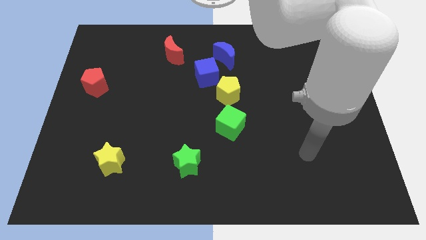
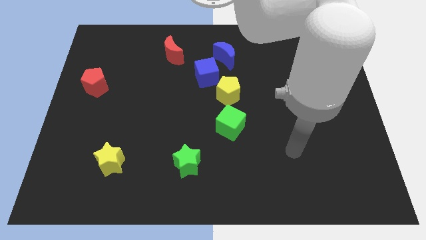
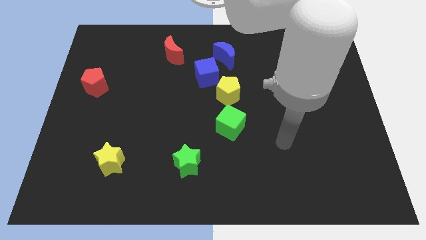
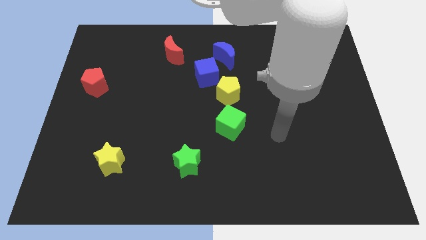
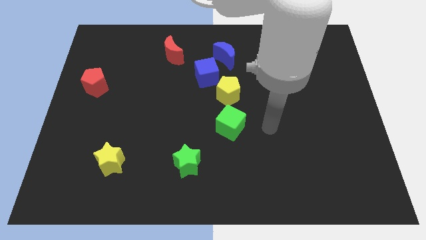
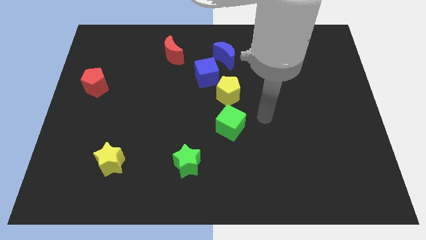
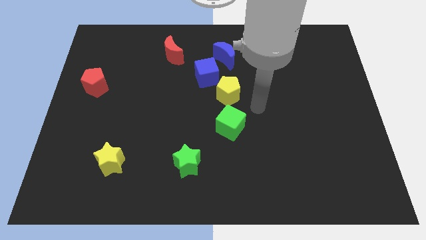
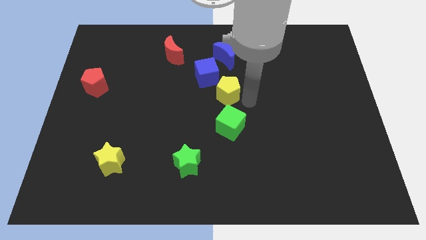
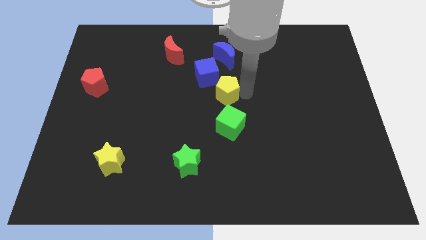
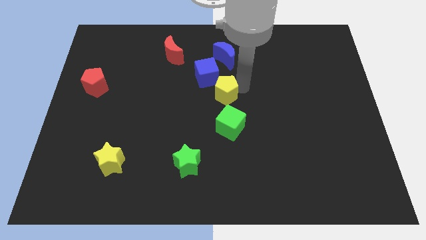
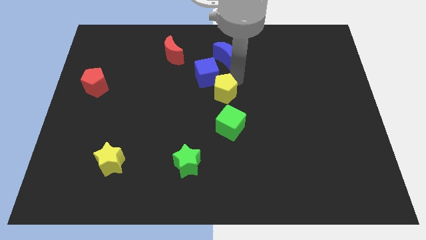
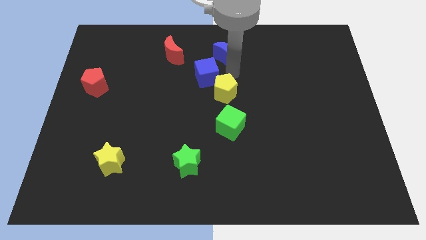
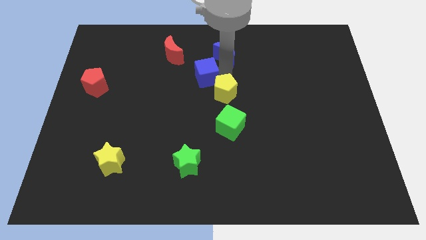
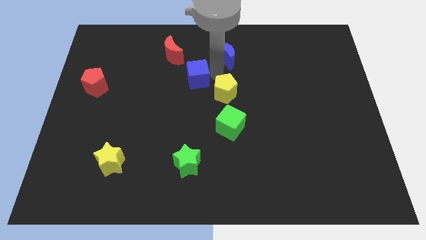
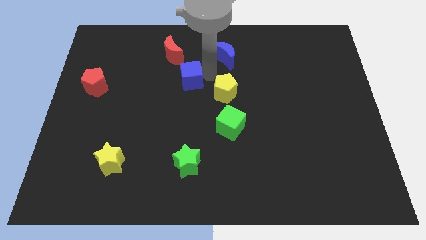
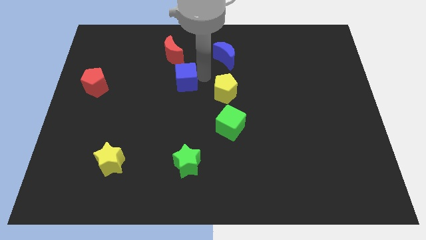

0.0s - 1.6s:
move the blue cube away from the yellow pentagon and blue moon

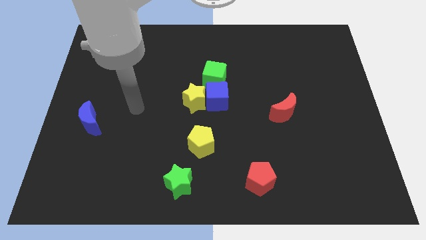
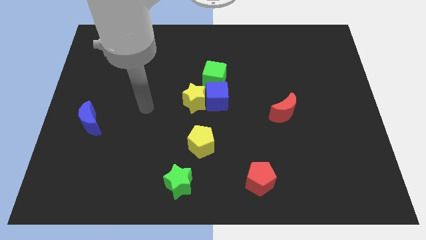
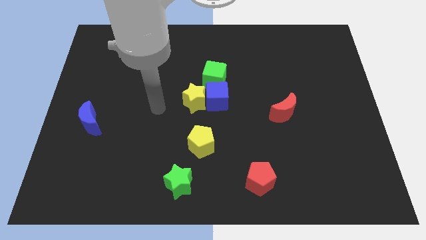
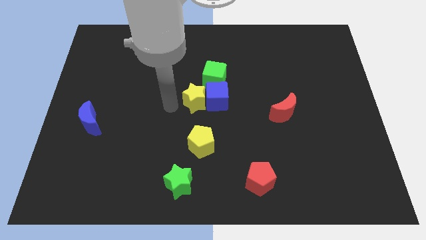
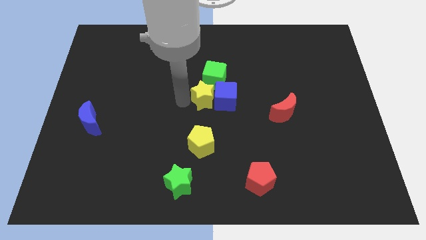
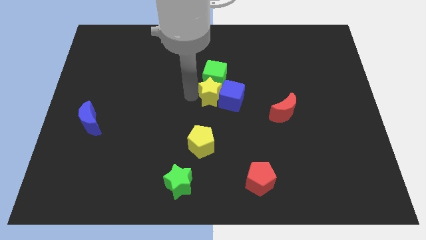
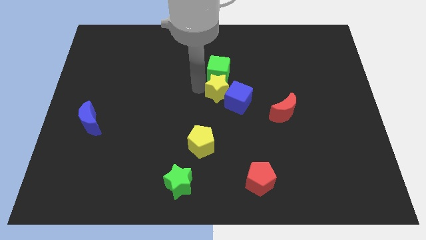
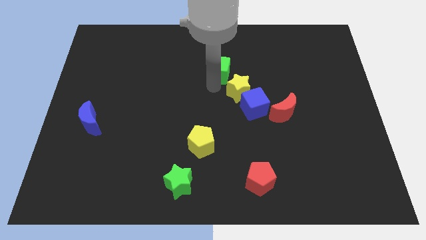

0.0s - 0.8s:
pull the blue cube apart from the yellow star and green cube

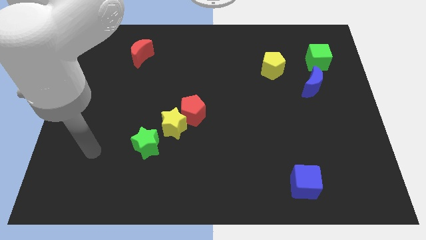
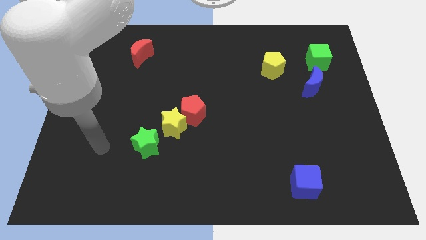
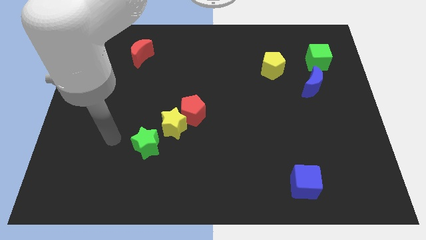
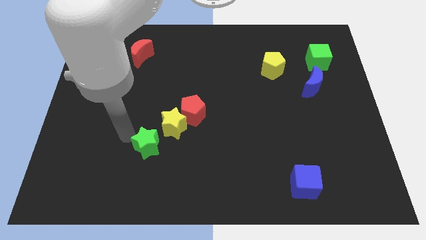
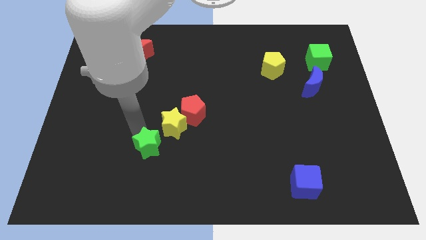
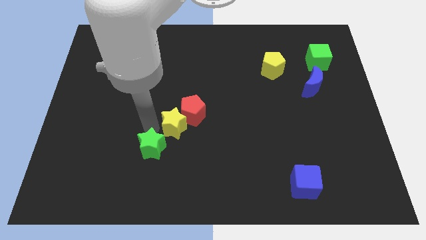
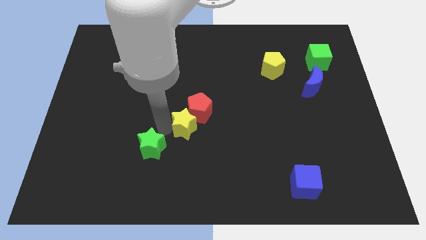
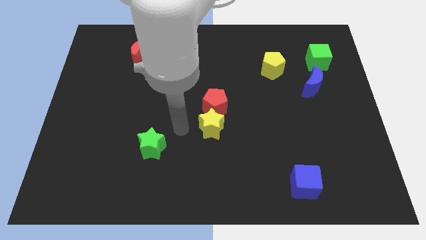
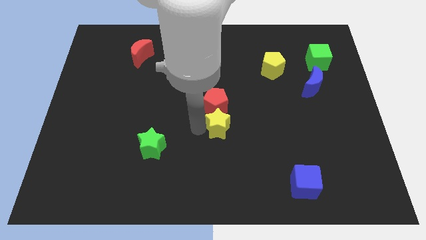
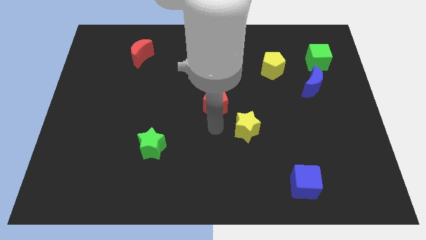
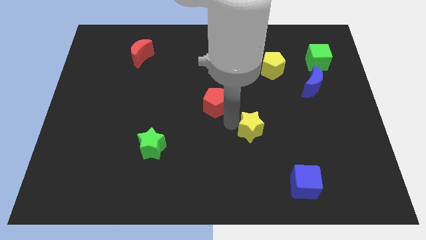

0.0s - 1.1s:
separate the red pentagon from the yellow star

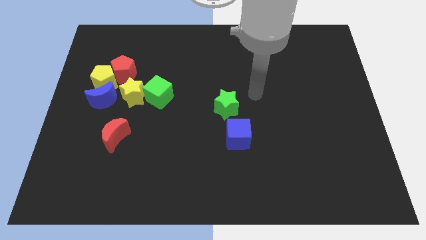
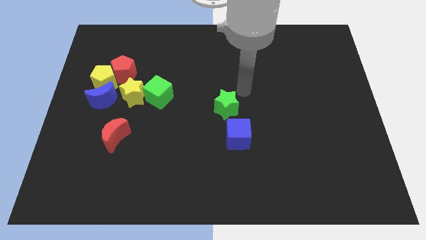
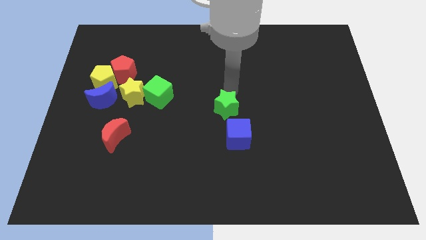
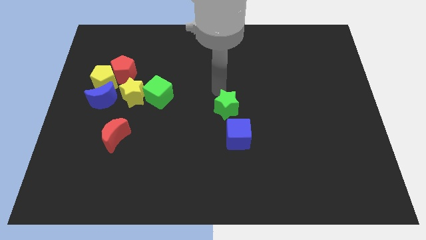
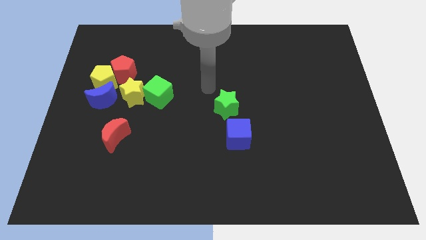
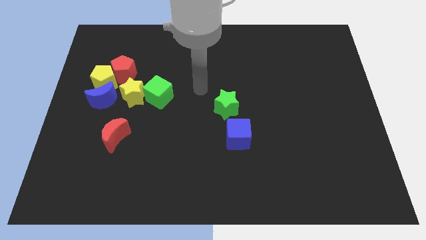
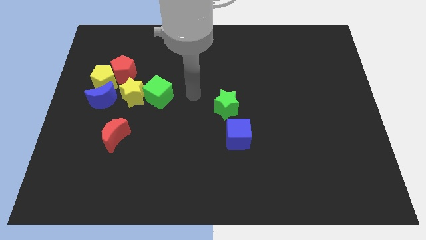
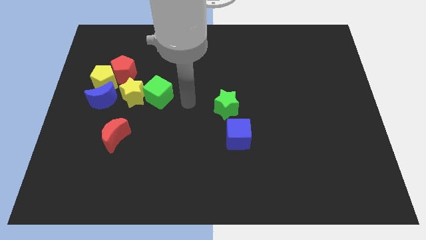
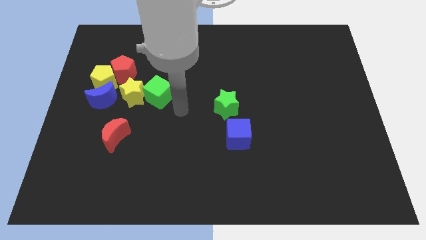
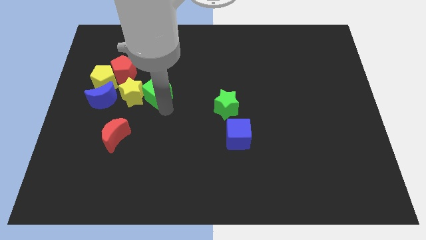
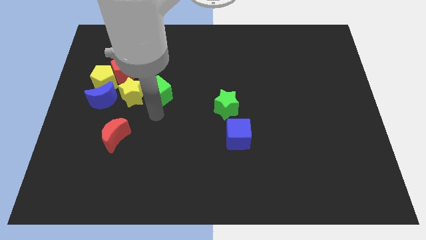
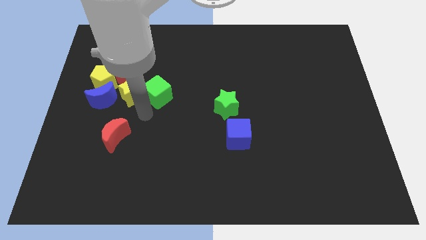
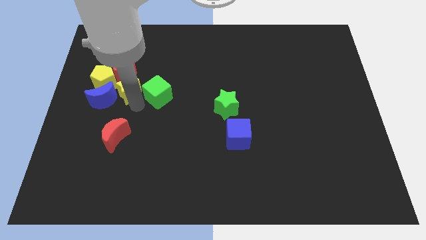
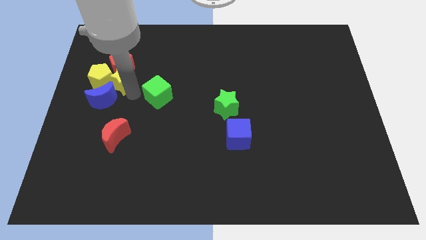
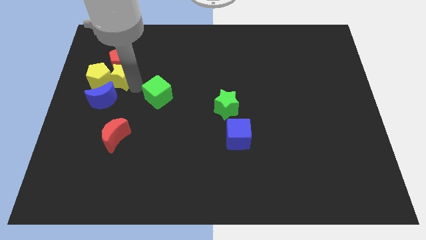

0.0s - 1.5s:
move the green cube away from the yellow star

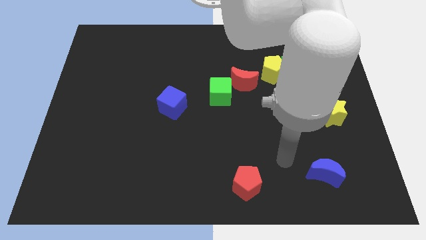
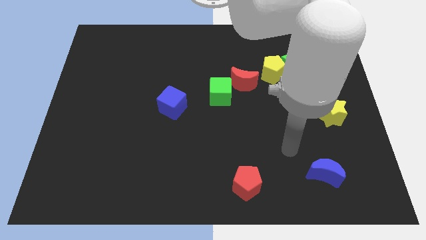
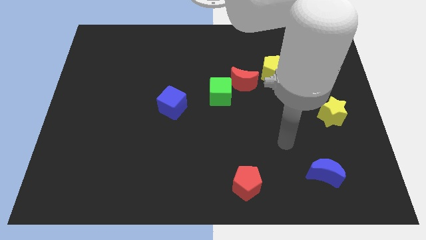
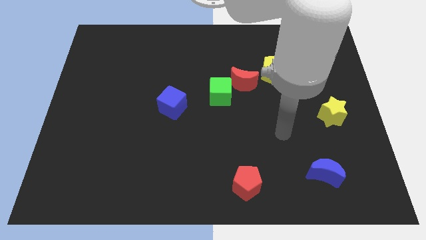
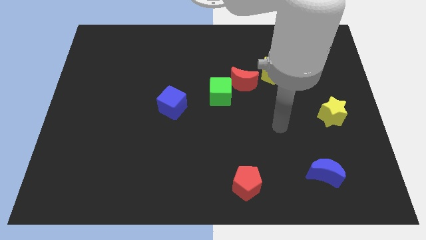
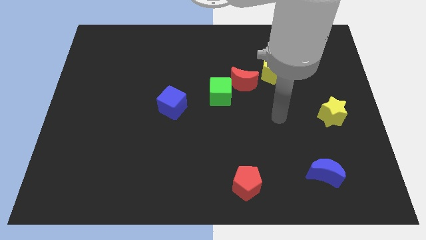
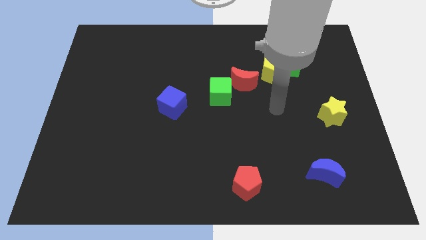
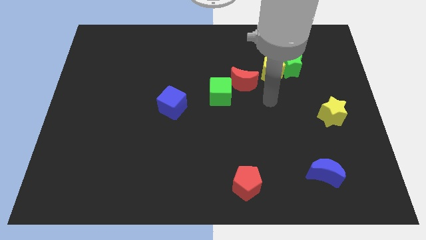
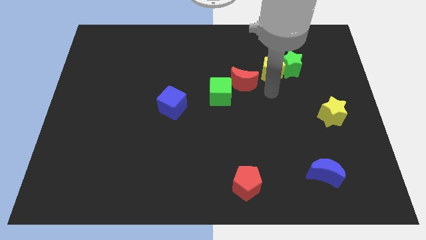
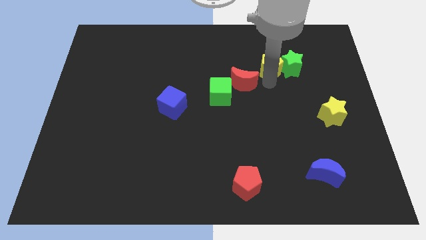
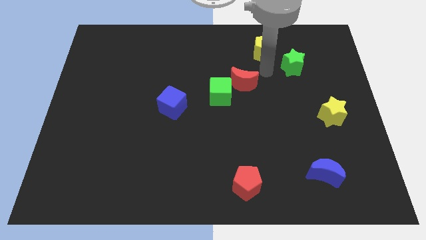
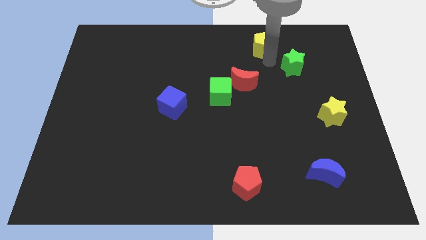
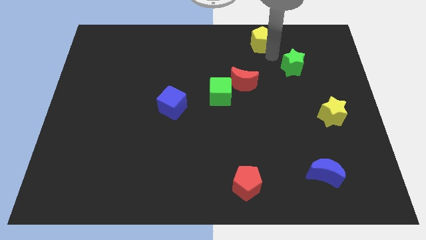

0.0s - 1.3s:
separate the green star from the yellow pentagon

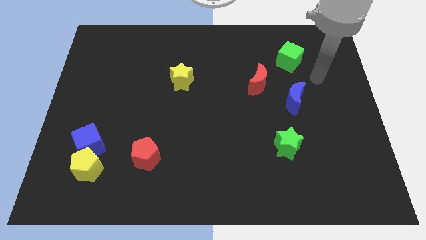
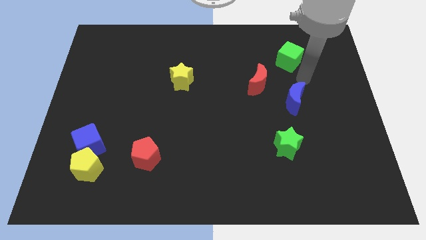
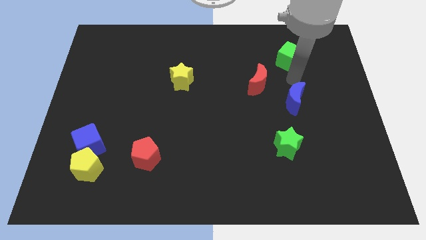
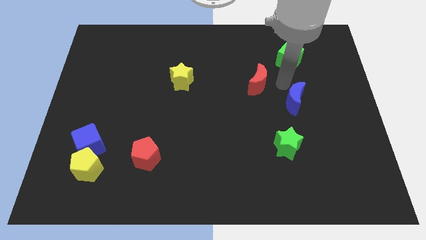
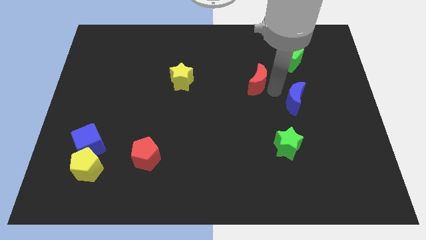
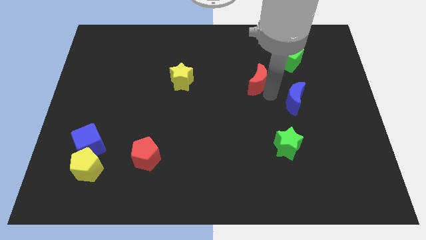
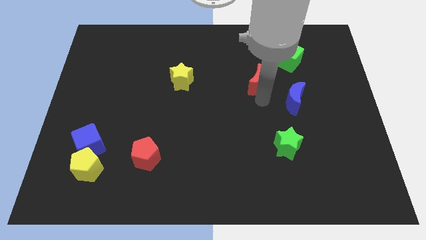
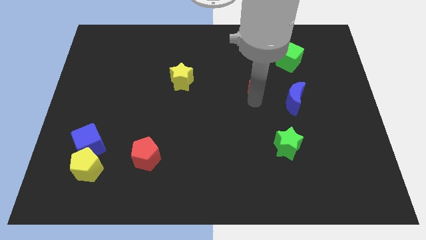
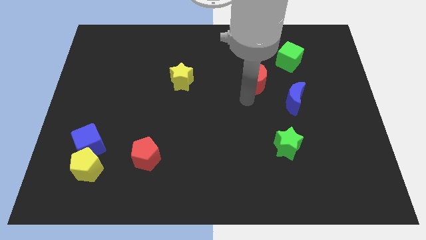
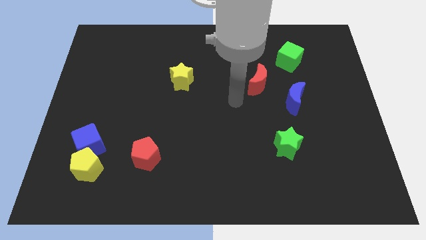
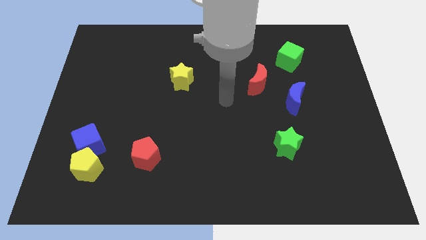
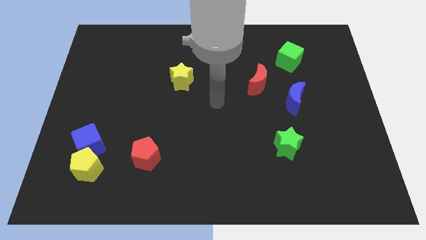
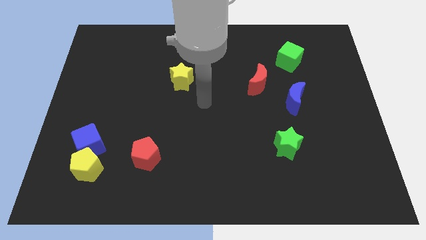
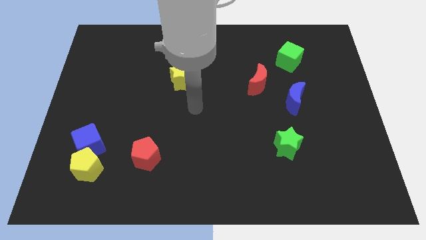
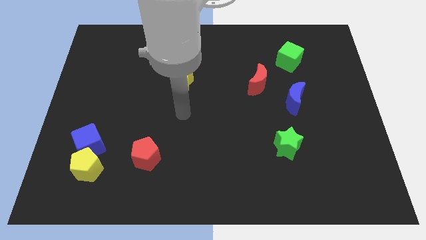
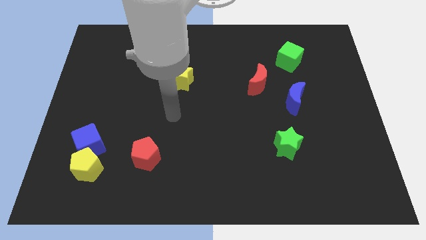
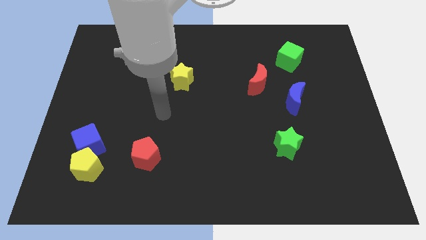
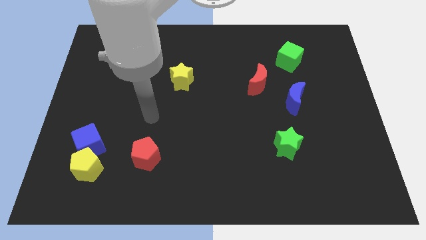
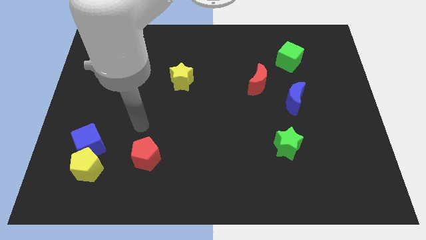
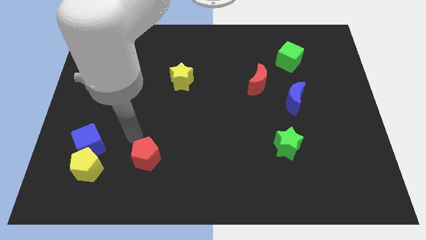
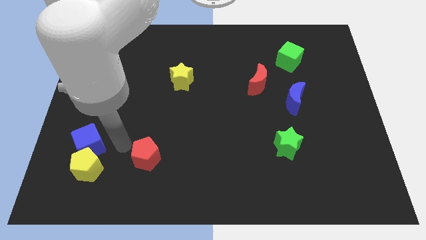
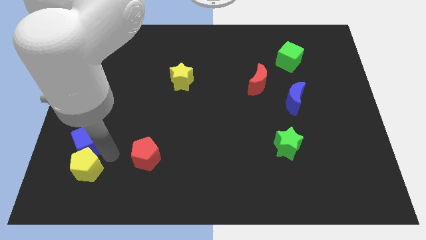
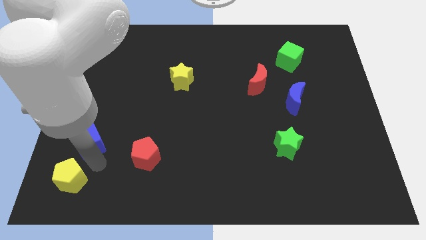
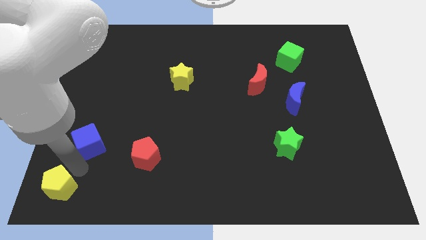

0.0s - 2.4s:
pull the blue cube apart from the yellow pentagon

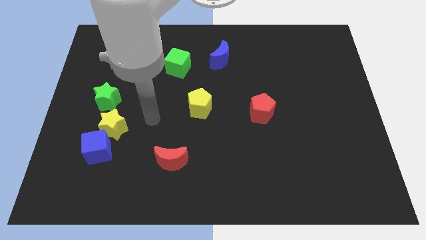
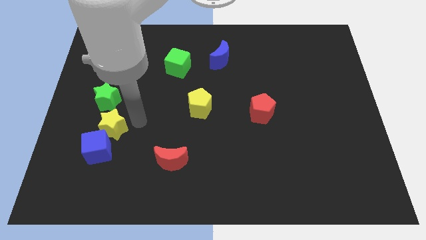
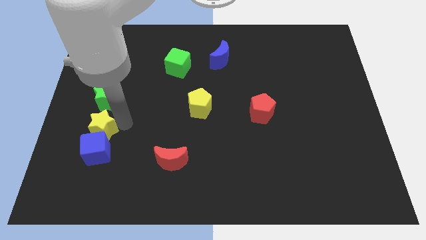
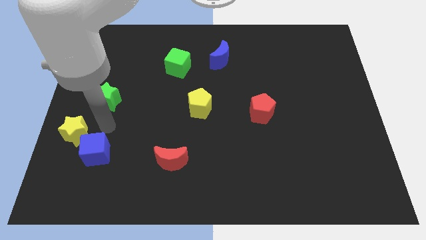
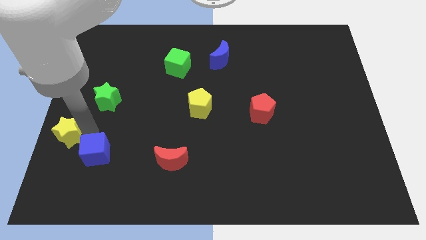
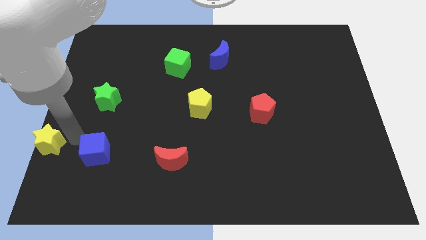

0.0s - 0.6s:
move the blue cube away from the yellow star
